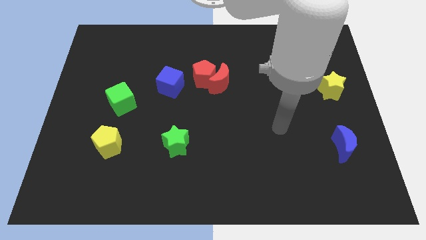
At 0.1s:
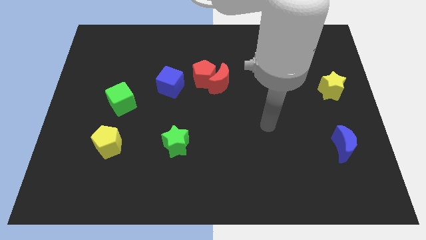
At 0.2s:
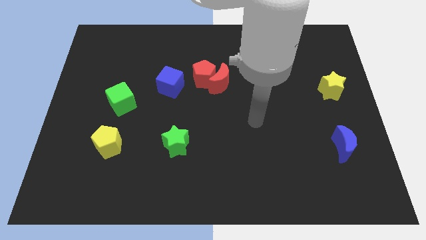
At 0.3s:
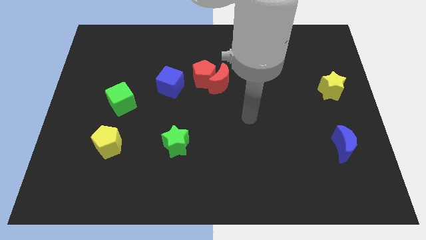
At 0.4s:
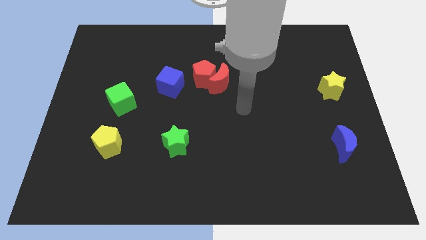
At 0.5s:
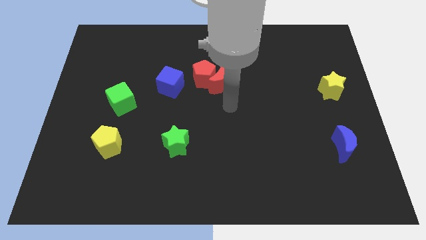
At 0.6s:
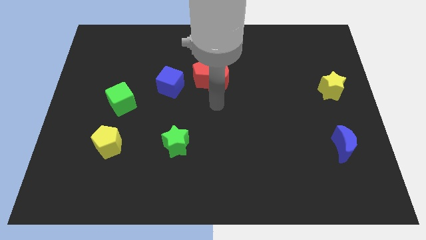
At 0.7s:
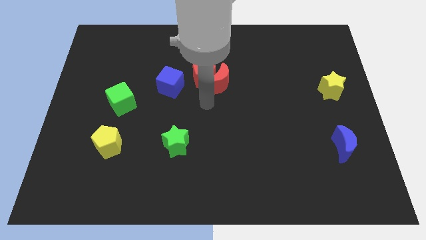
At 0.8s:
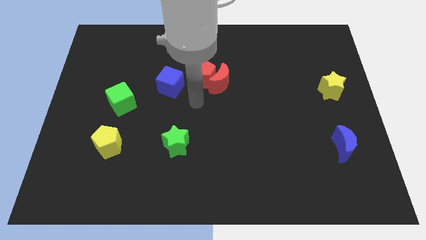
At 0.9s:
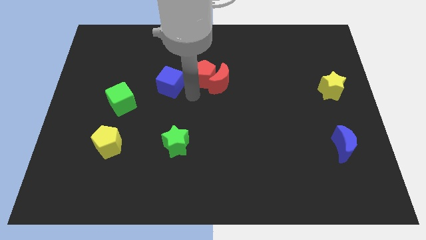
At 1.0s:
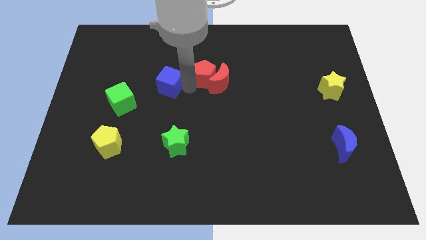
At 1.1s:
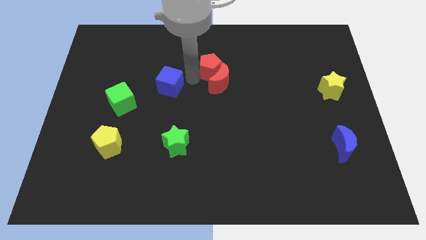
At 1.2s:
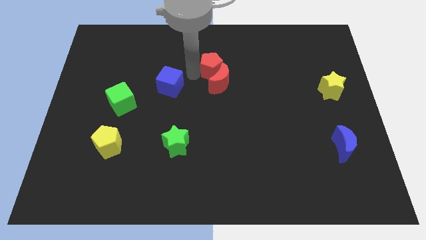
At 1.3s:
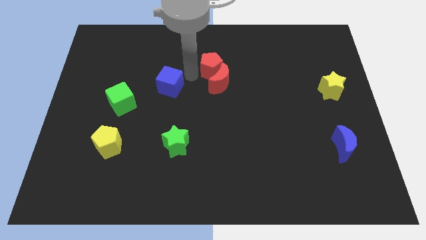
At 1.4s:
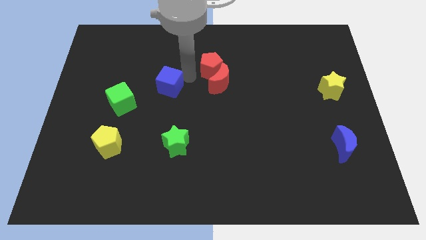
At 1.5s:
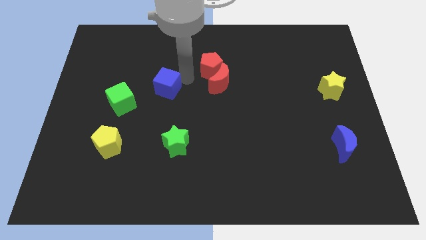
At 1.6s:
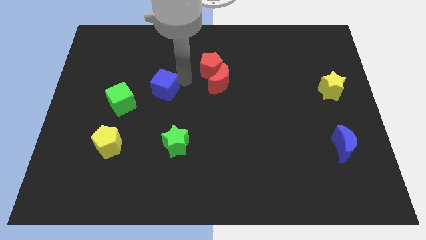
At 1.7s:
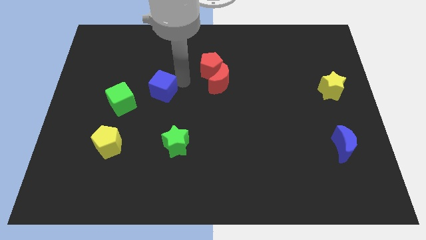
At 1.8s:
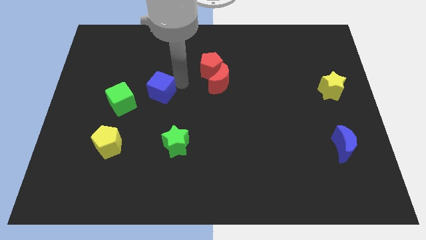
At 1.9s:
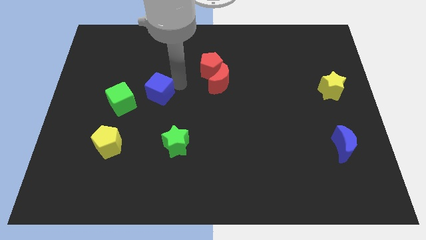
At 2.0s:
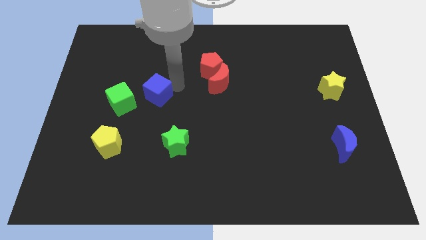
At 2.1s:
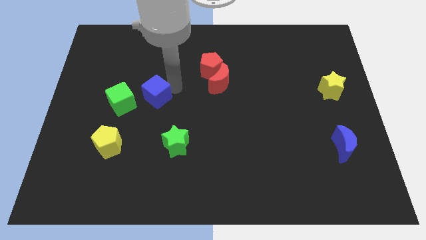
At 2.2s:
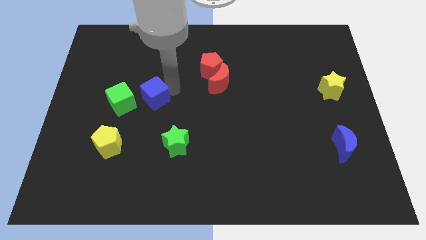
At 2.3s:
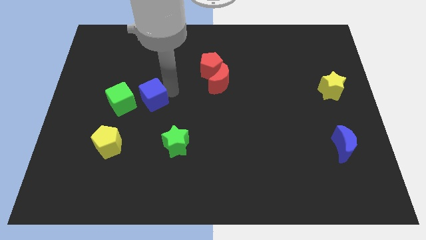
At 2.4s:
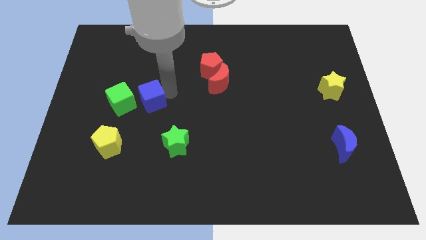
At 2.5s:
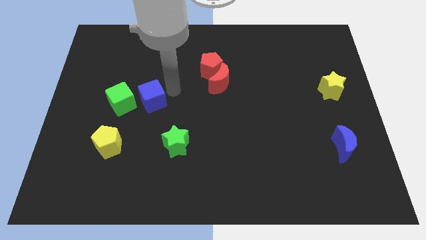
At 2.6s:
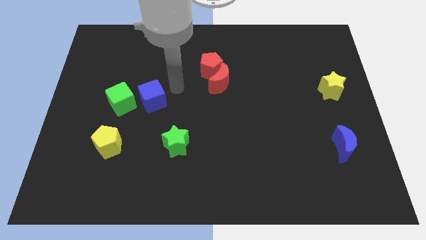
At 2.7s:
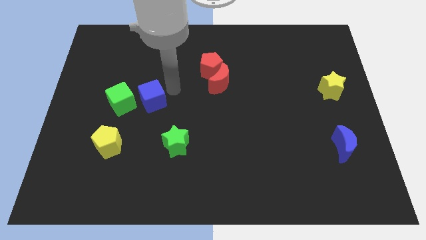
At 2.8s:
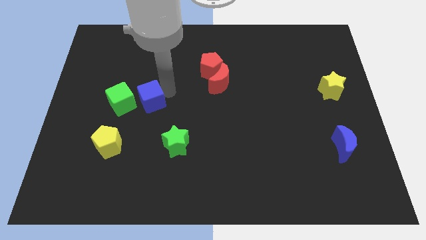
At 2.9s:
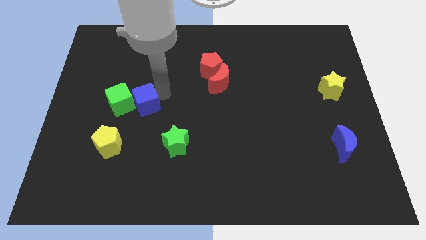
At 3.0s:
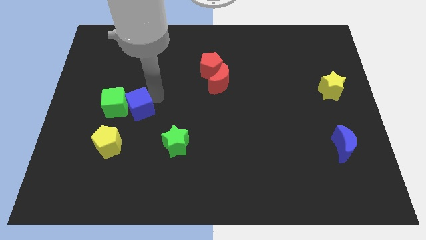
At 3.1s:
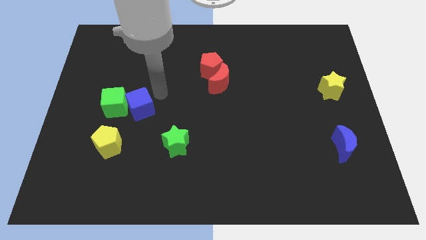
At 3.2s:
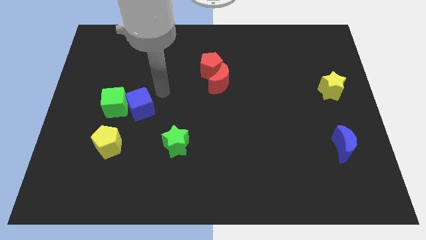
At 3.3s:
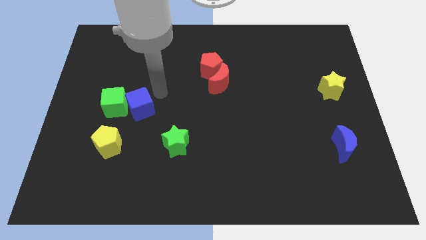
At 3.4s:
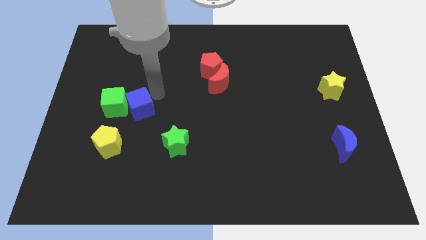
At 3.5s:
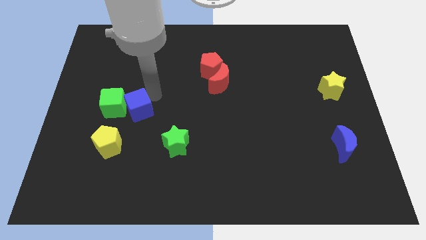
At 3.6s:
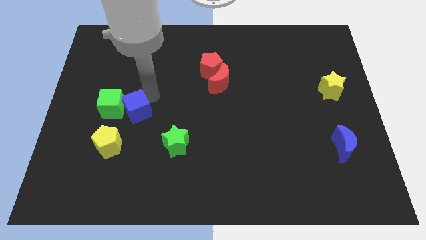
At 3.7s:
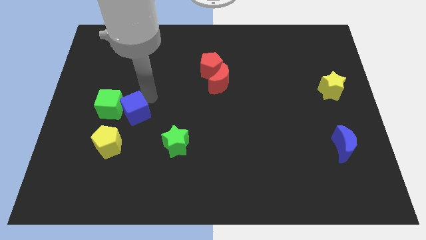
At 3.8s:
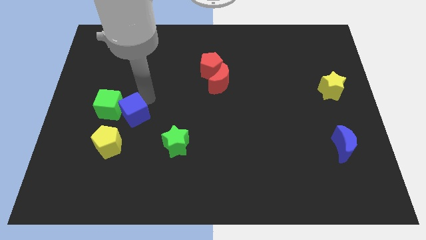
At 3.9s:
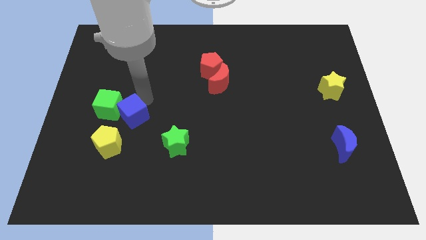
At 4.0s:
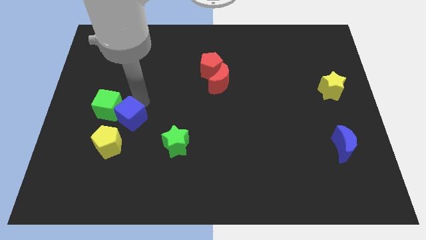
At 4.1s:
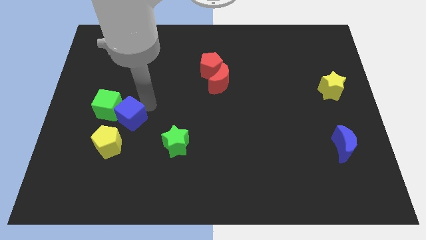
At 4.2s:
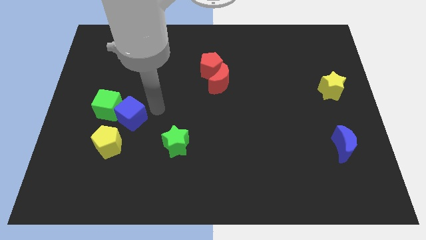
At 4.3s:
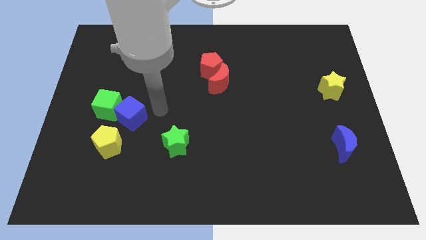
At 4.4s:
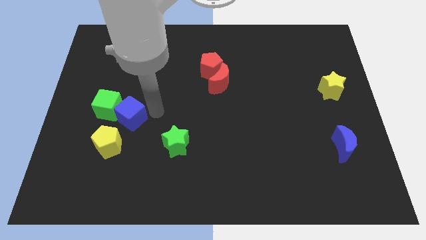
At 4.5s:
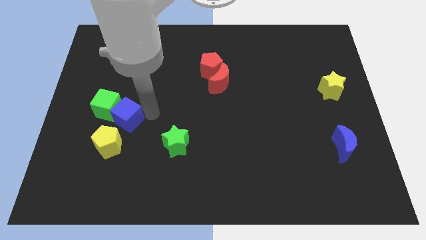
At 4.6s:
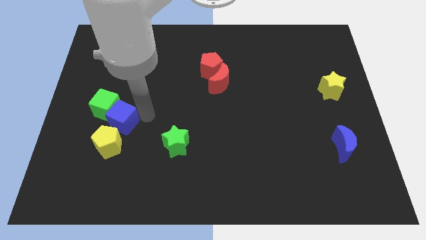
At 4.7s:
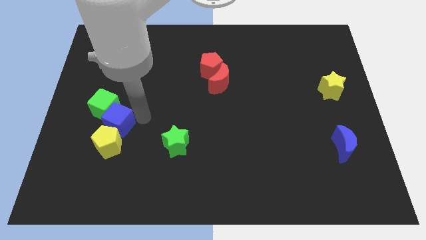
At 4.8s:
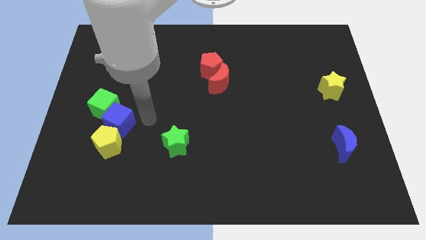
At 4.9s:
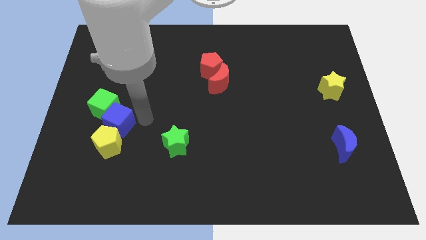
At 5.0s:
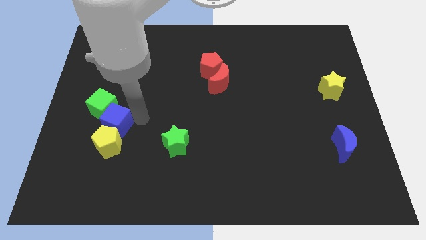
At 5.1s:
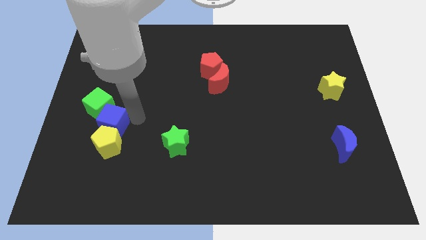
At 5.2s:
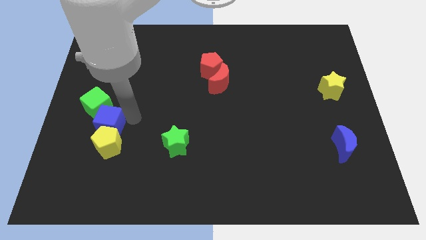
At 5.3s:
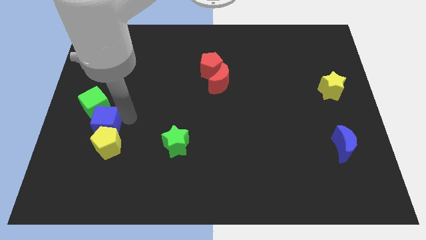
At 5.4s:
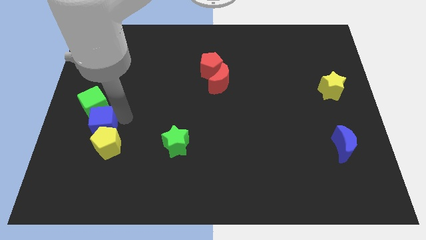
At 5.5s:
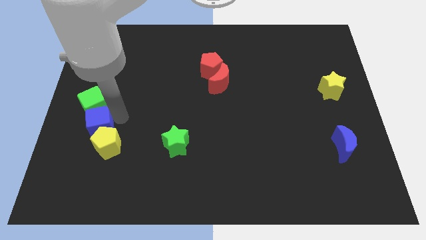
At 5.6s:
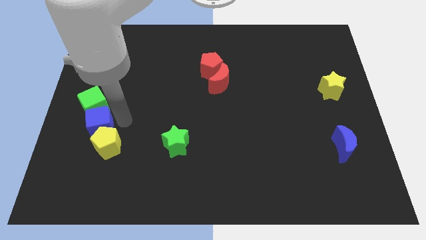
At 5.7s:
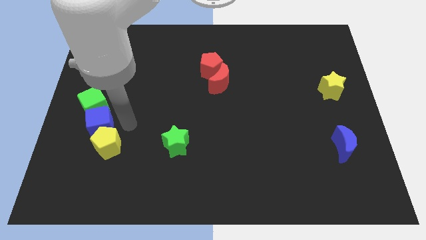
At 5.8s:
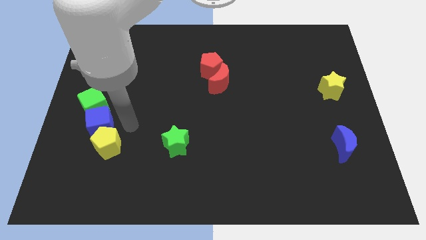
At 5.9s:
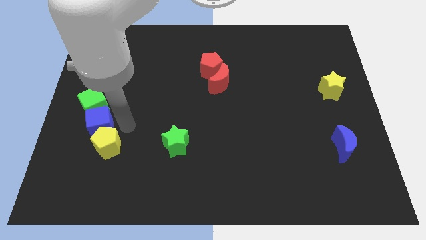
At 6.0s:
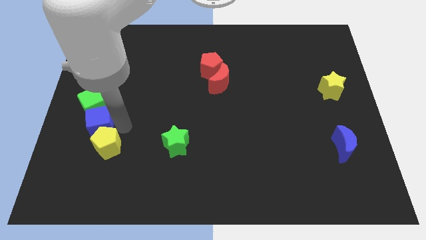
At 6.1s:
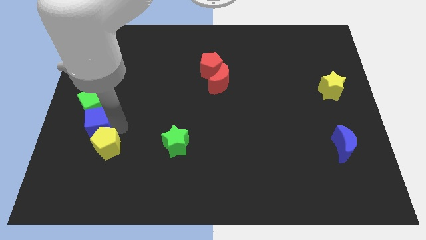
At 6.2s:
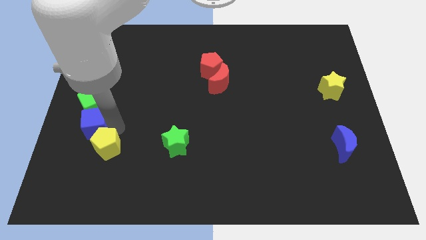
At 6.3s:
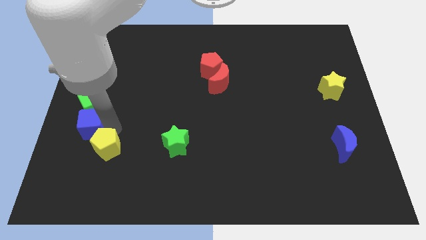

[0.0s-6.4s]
slide the blue cube diagonally down and to the left of the green cube

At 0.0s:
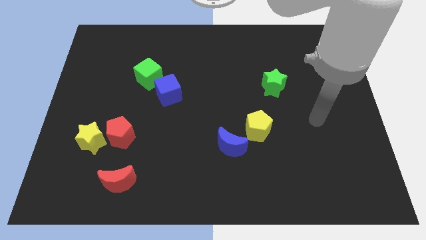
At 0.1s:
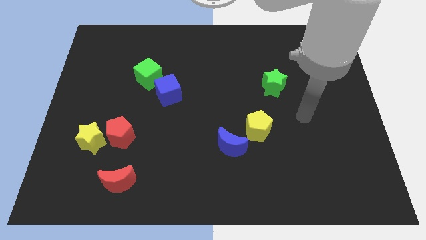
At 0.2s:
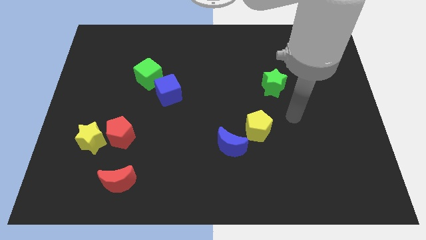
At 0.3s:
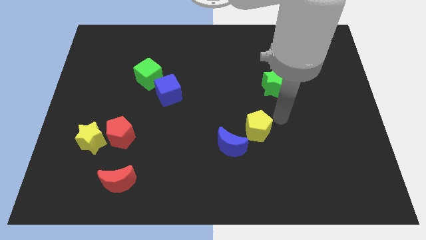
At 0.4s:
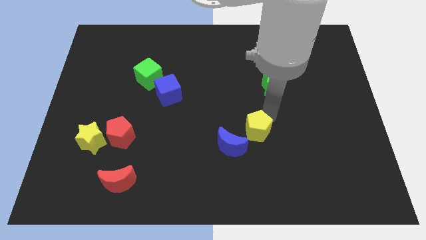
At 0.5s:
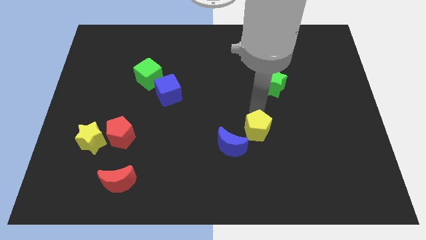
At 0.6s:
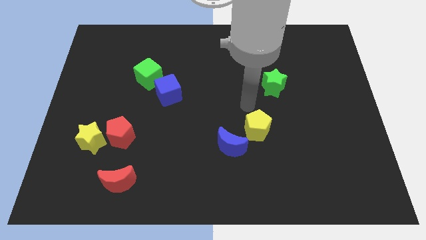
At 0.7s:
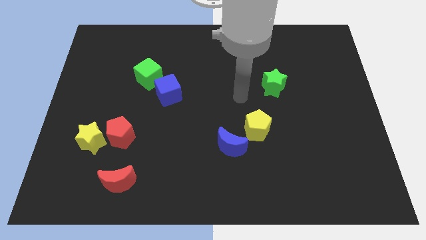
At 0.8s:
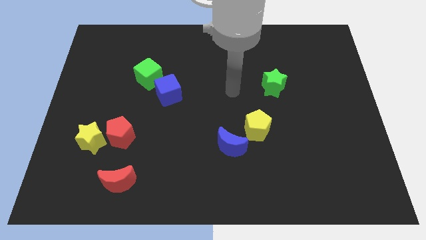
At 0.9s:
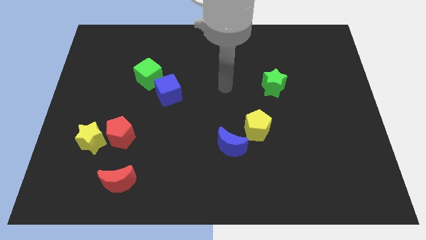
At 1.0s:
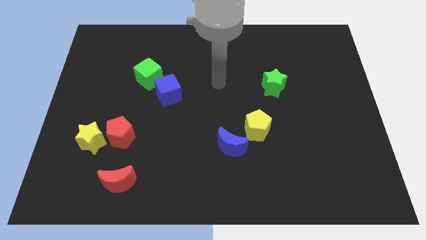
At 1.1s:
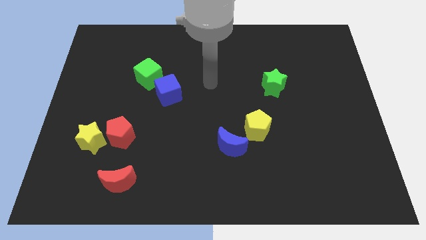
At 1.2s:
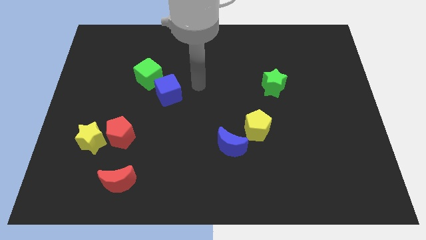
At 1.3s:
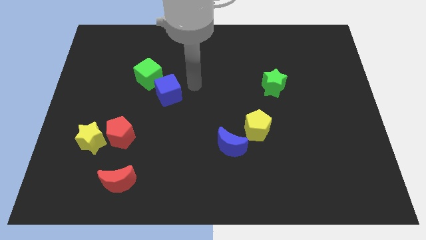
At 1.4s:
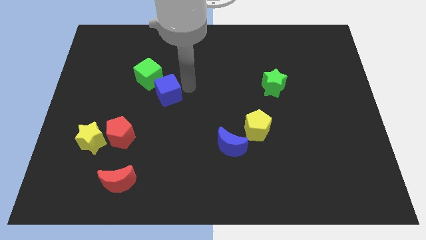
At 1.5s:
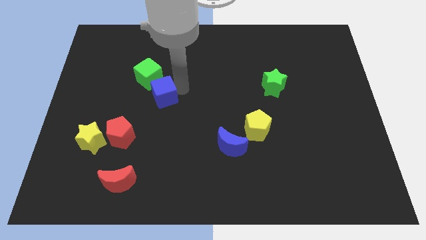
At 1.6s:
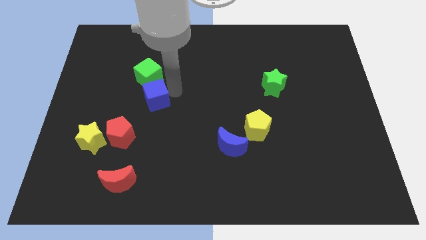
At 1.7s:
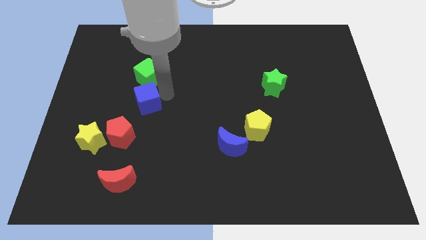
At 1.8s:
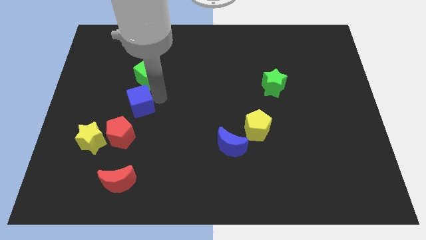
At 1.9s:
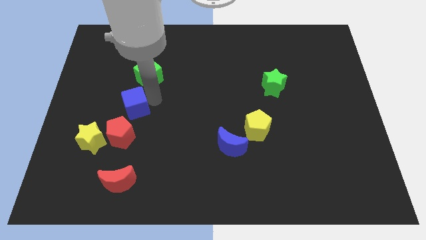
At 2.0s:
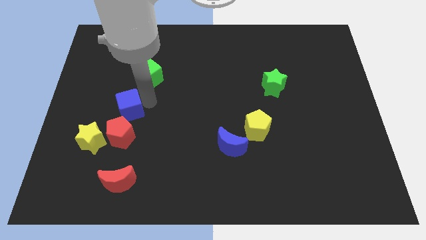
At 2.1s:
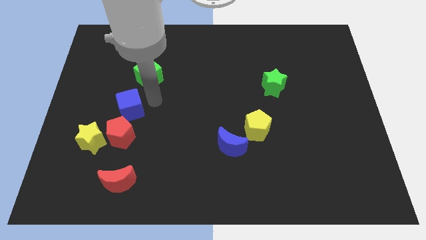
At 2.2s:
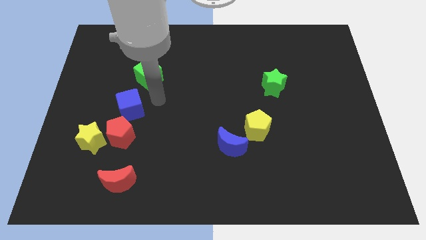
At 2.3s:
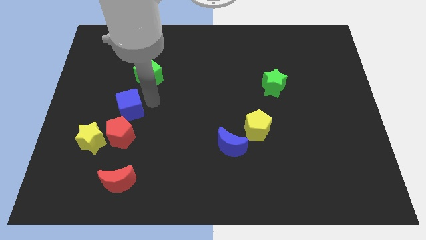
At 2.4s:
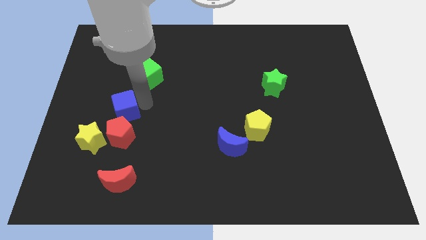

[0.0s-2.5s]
put the blue cube to the top left side of the red pentagon
